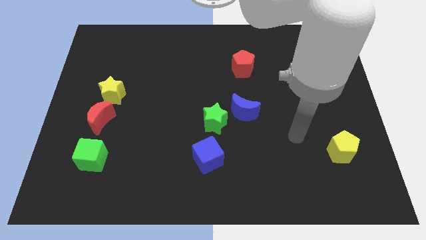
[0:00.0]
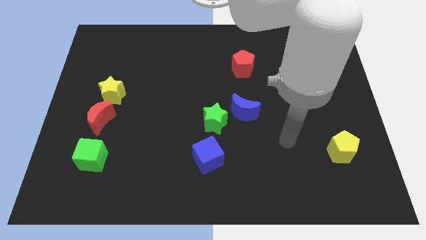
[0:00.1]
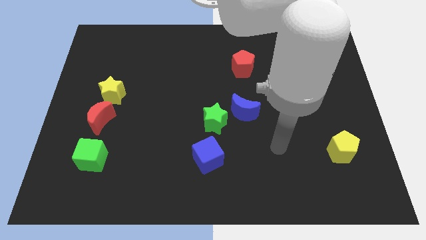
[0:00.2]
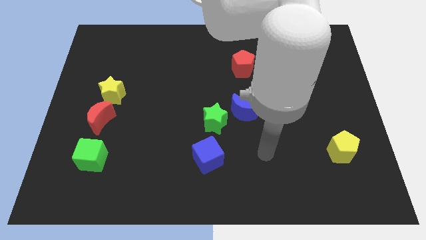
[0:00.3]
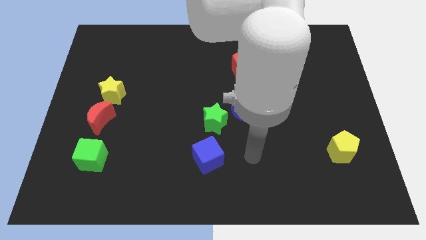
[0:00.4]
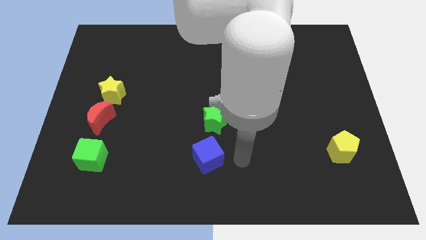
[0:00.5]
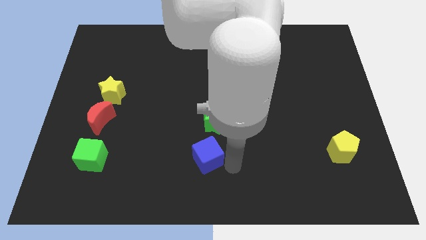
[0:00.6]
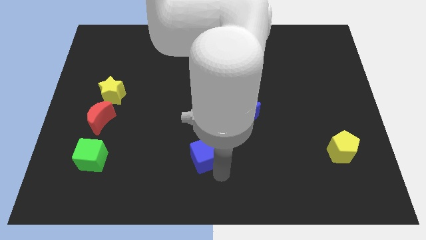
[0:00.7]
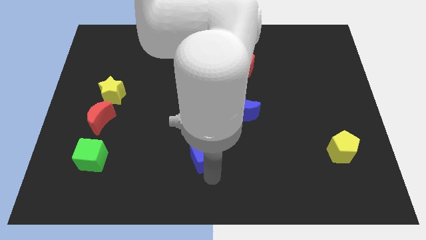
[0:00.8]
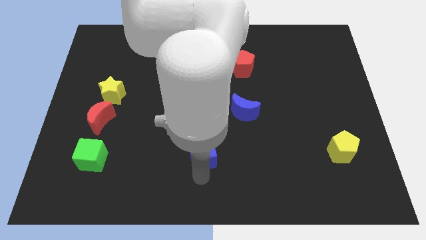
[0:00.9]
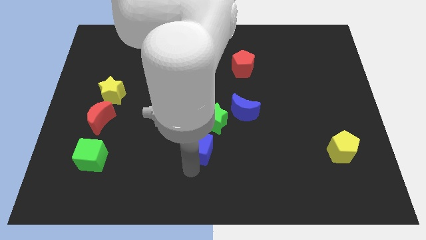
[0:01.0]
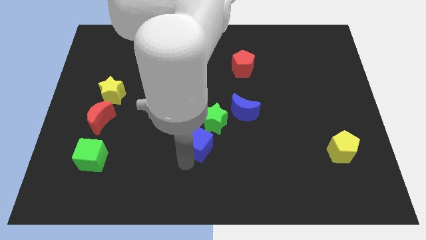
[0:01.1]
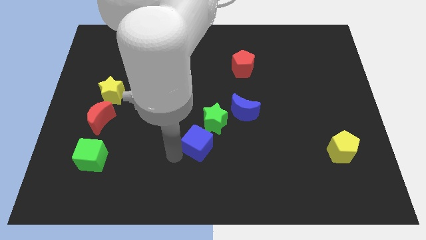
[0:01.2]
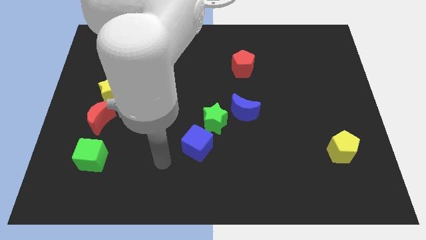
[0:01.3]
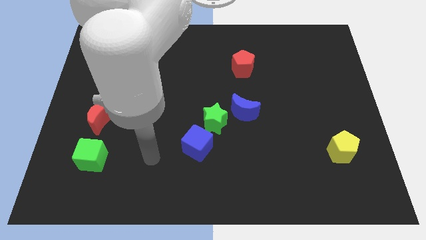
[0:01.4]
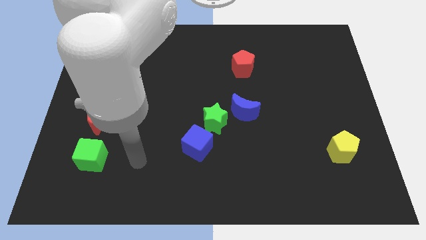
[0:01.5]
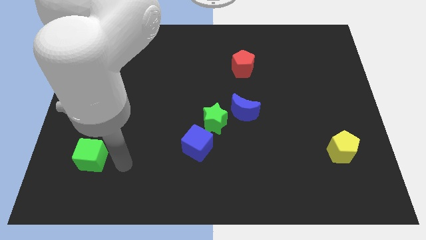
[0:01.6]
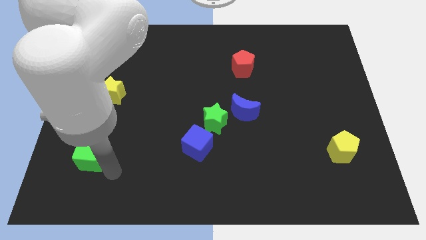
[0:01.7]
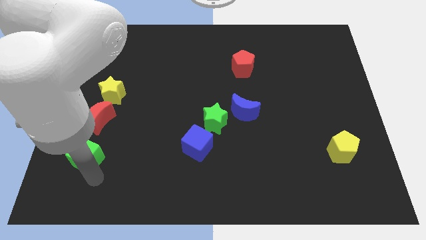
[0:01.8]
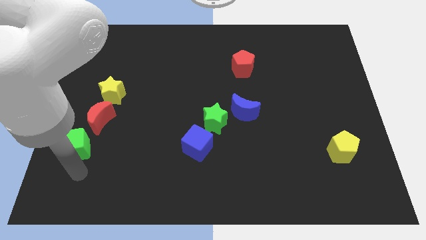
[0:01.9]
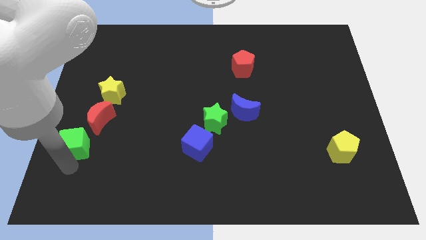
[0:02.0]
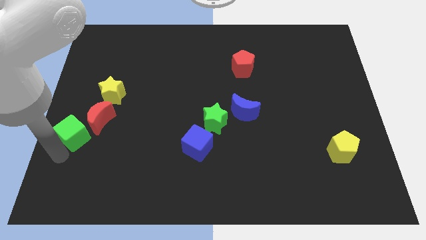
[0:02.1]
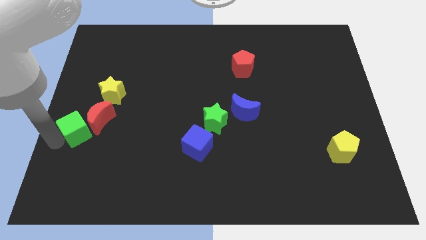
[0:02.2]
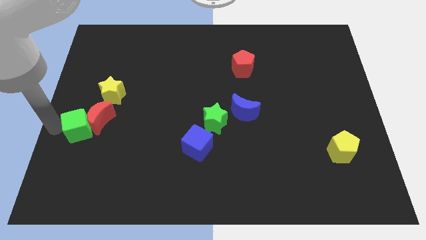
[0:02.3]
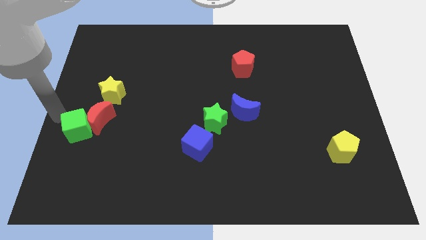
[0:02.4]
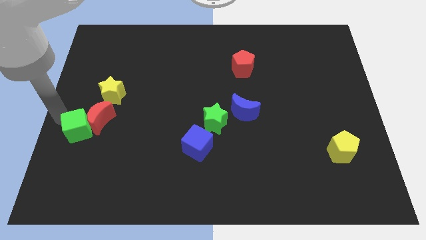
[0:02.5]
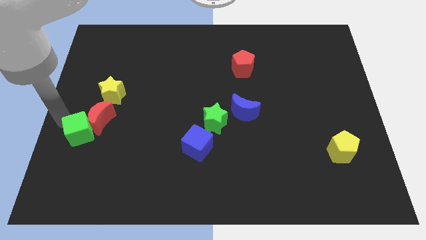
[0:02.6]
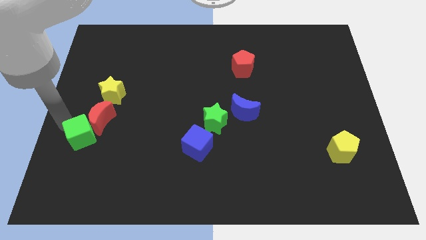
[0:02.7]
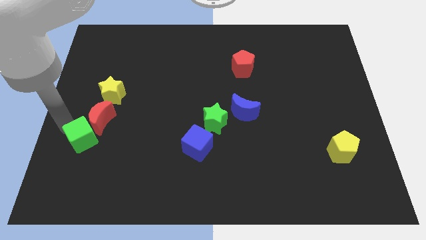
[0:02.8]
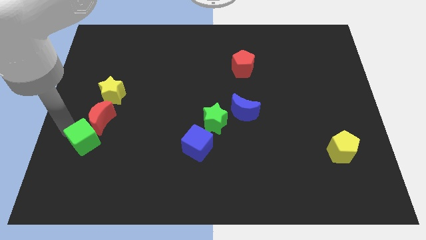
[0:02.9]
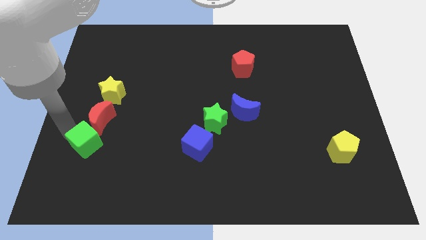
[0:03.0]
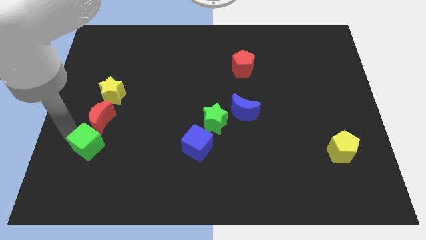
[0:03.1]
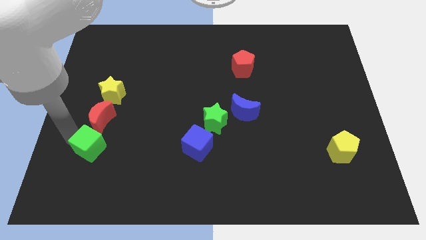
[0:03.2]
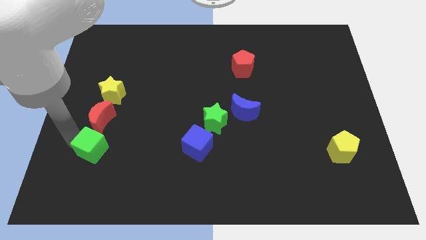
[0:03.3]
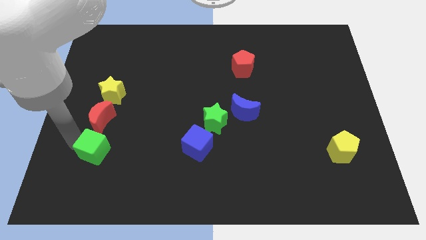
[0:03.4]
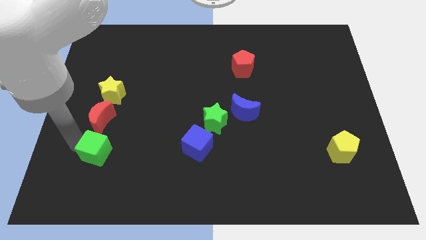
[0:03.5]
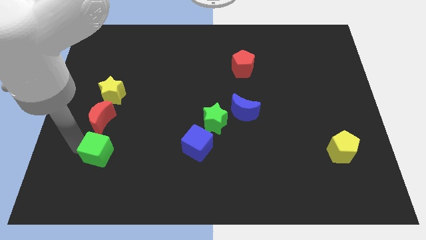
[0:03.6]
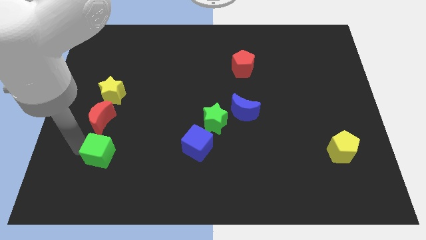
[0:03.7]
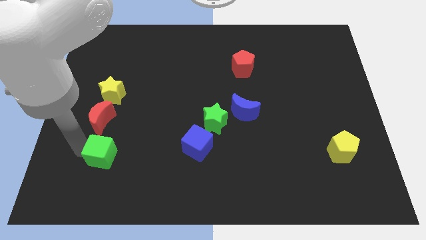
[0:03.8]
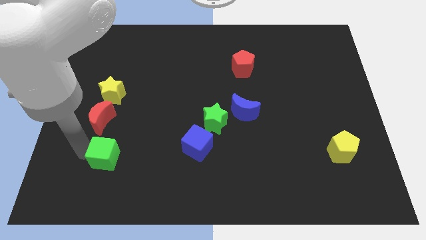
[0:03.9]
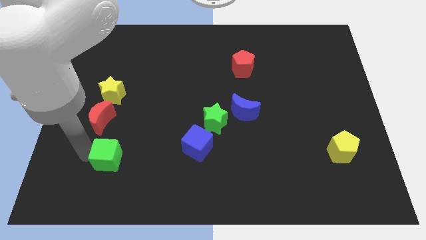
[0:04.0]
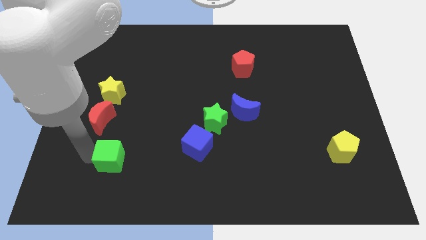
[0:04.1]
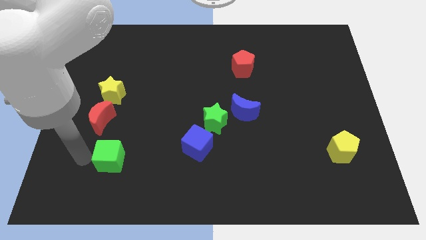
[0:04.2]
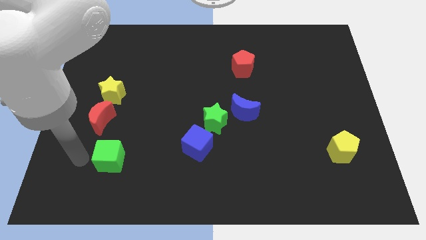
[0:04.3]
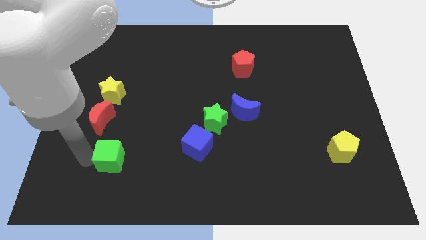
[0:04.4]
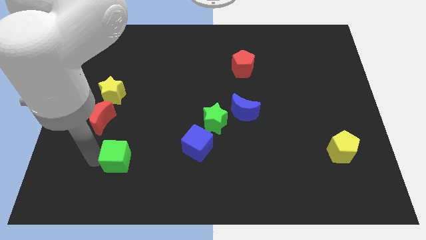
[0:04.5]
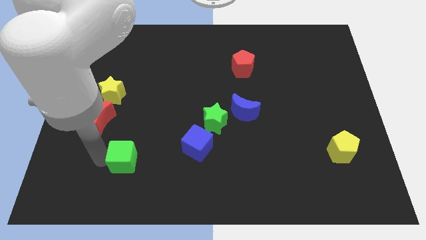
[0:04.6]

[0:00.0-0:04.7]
push the green cube right somewhat

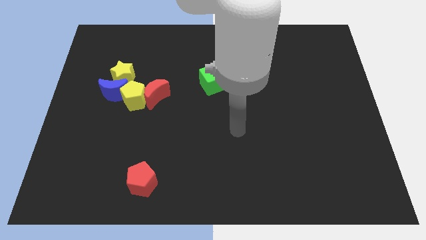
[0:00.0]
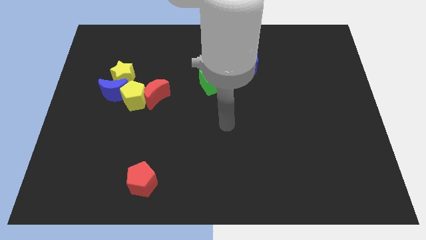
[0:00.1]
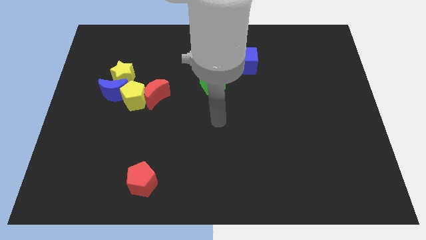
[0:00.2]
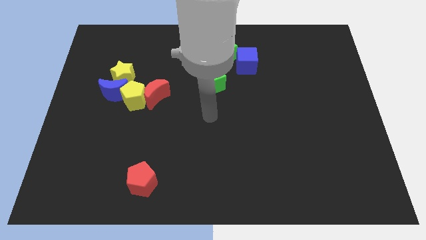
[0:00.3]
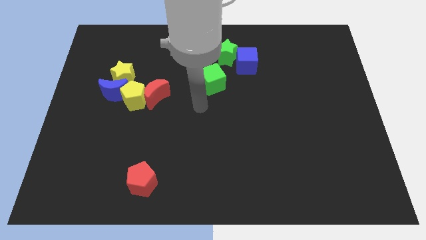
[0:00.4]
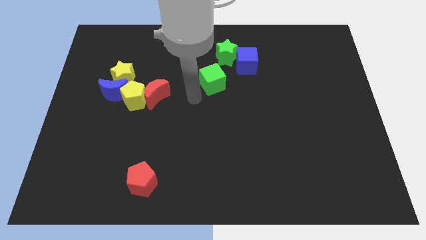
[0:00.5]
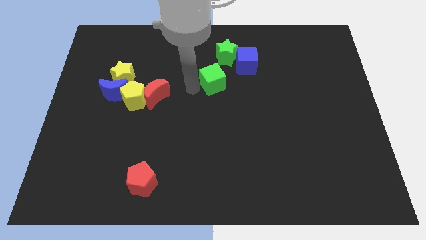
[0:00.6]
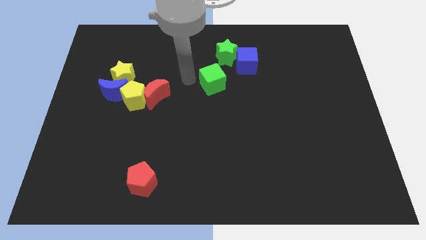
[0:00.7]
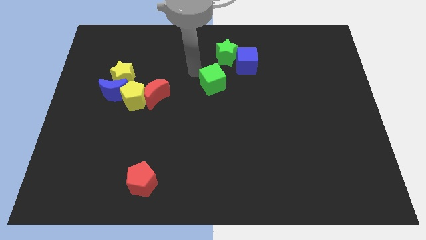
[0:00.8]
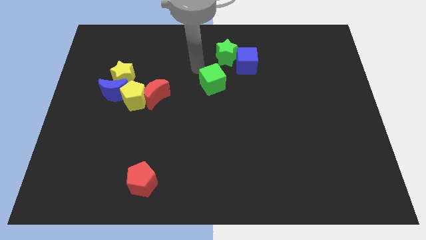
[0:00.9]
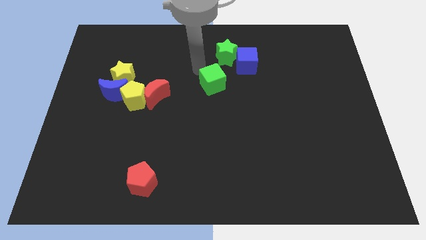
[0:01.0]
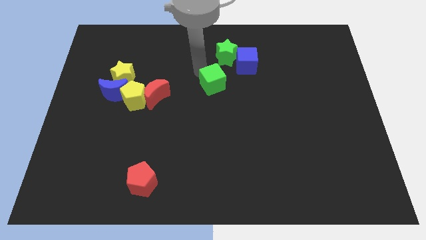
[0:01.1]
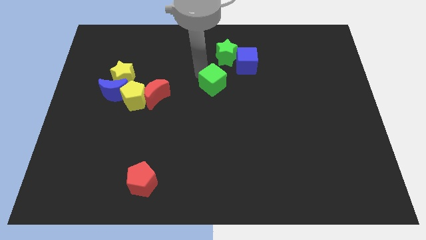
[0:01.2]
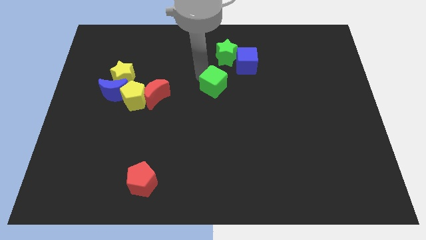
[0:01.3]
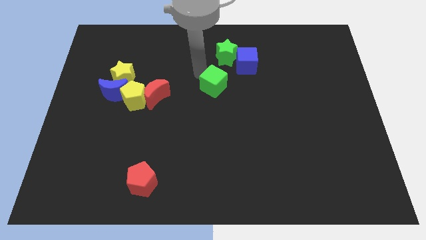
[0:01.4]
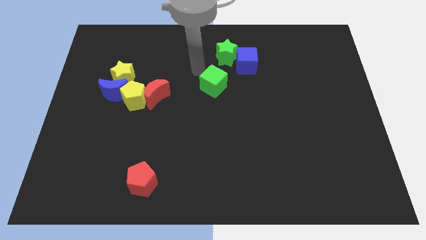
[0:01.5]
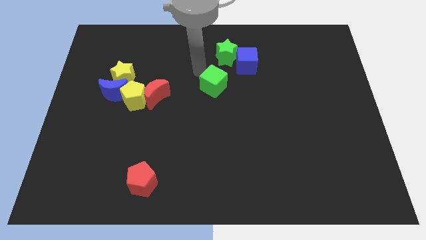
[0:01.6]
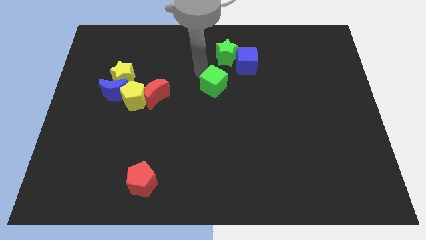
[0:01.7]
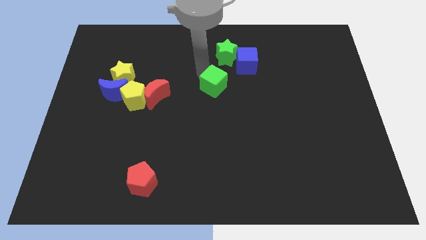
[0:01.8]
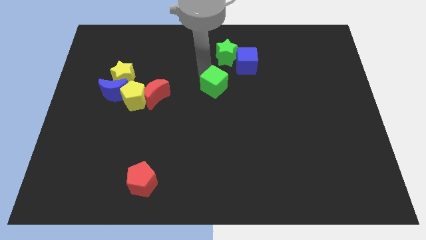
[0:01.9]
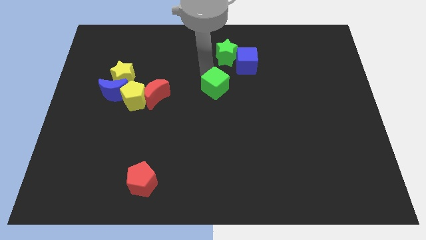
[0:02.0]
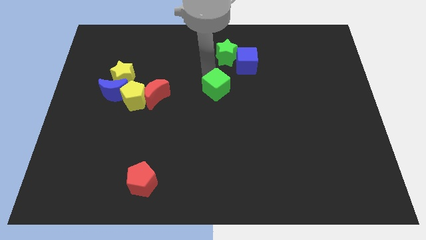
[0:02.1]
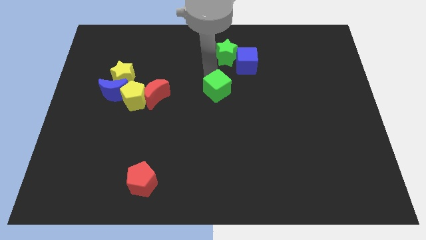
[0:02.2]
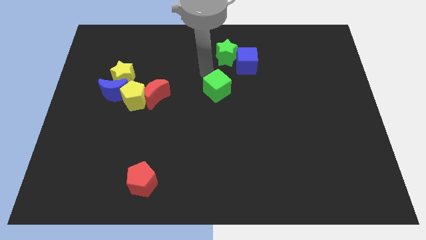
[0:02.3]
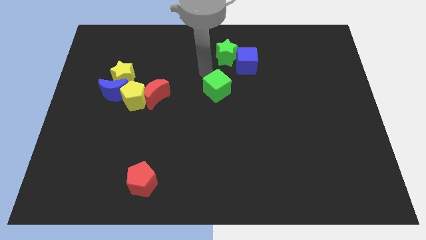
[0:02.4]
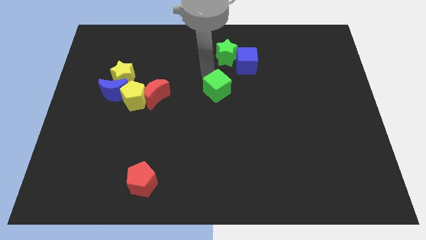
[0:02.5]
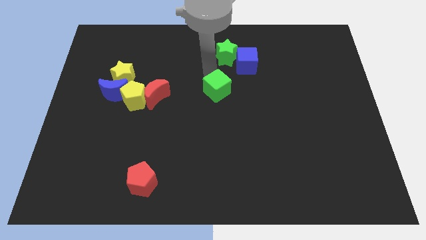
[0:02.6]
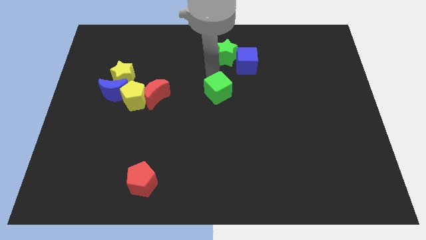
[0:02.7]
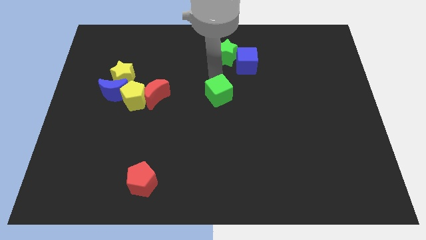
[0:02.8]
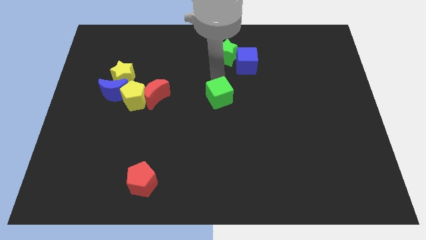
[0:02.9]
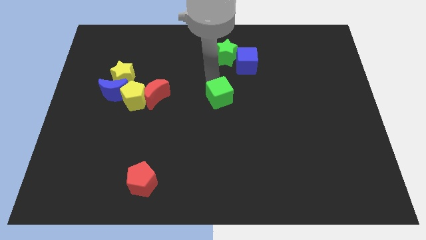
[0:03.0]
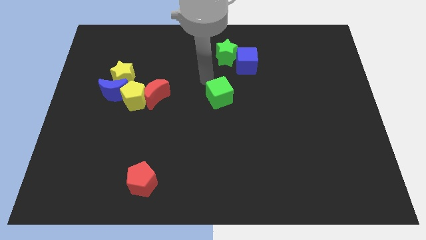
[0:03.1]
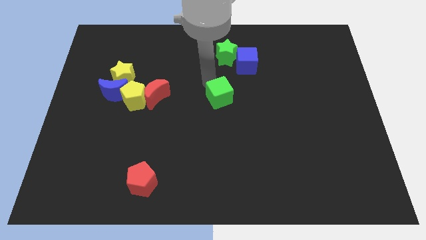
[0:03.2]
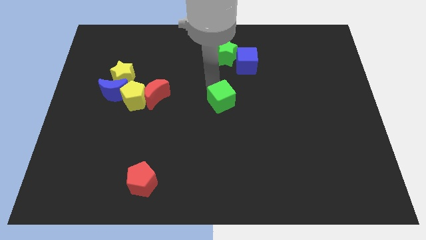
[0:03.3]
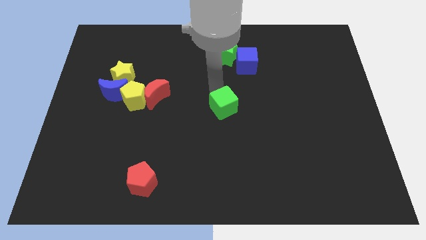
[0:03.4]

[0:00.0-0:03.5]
slide the green cube a bit down and then right

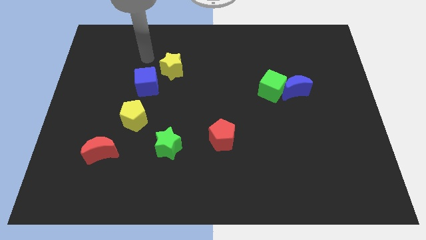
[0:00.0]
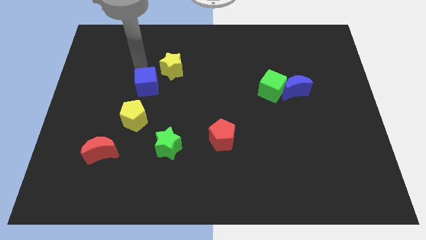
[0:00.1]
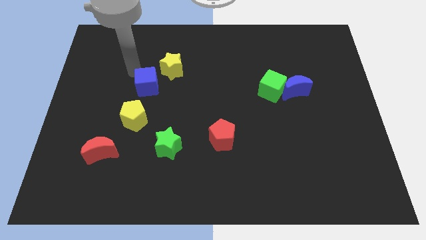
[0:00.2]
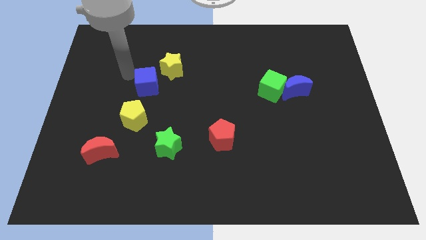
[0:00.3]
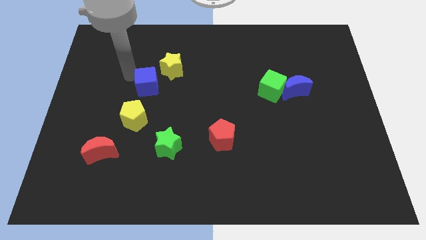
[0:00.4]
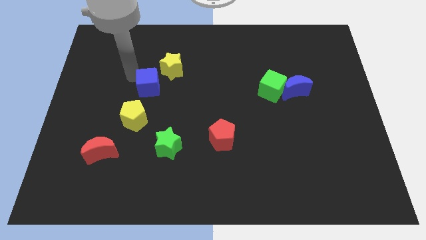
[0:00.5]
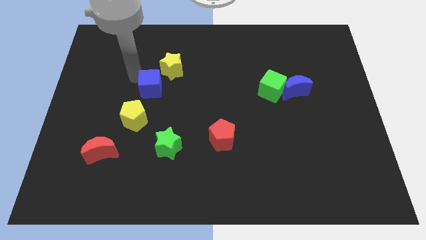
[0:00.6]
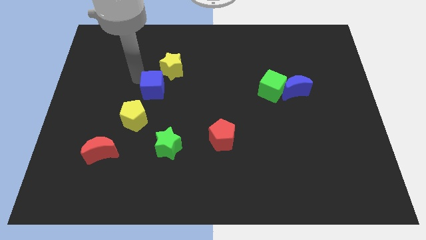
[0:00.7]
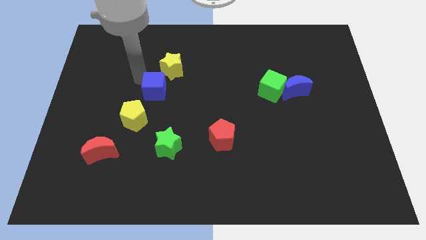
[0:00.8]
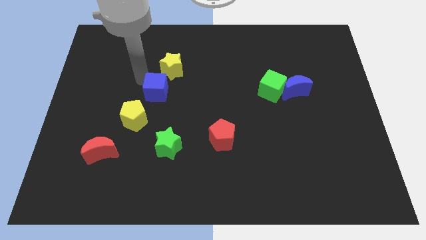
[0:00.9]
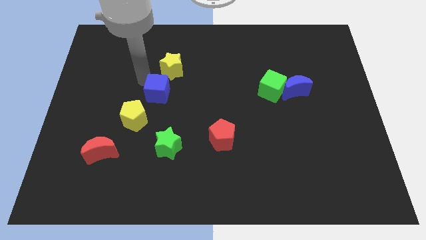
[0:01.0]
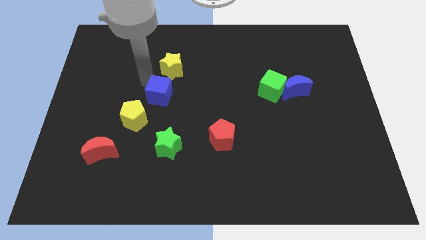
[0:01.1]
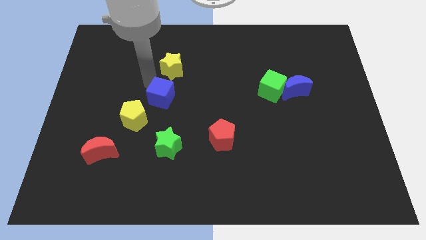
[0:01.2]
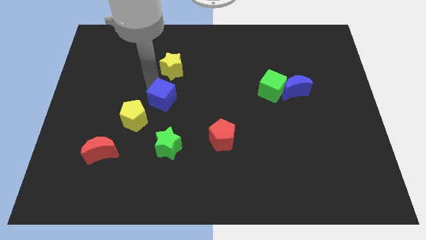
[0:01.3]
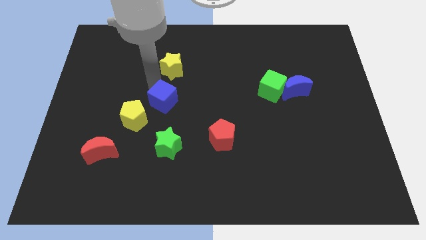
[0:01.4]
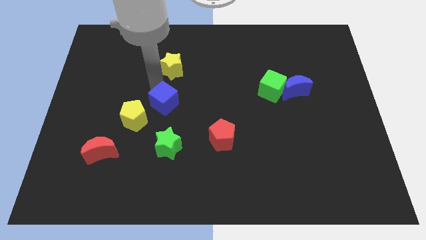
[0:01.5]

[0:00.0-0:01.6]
move the blue cube slightly downwards and to the right diagonally
